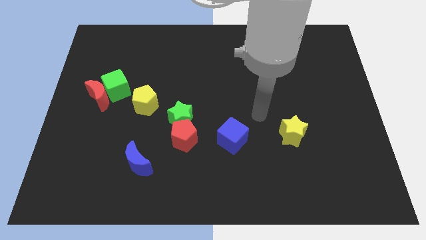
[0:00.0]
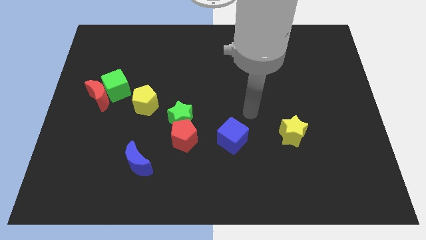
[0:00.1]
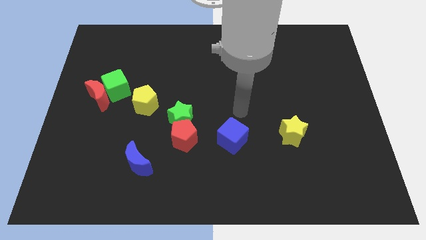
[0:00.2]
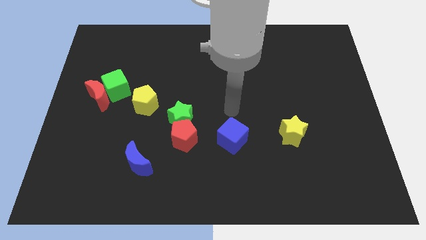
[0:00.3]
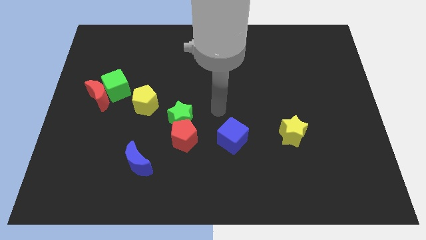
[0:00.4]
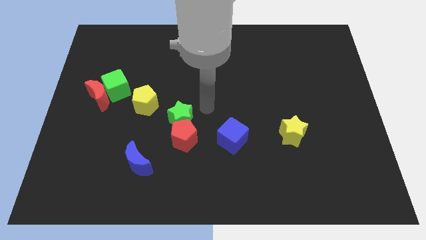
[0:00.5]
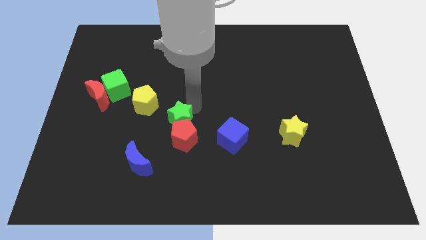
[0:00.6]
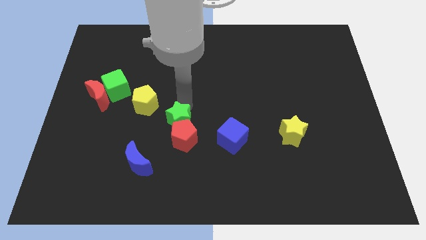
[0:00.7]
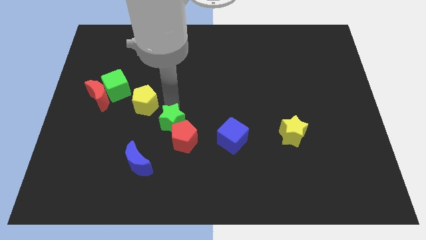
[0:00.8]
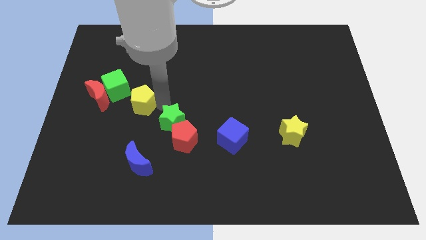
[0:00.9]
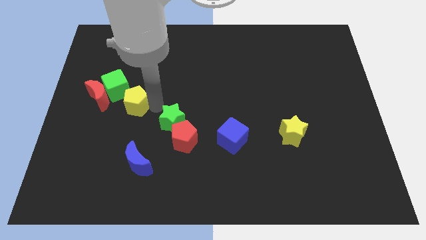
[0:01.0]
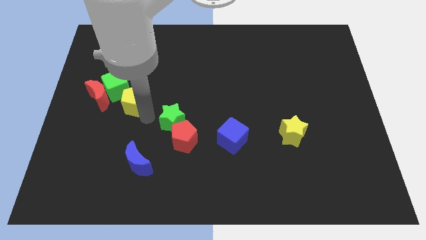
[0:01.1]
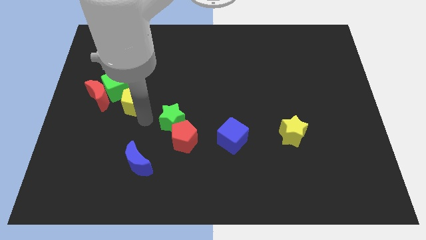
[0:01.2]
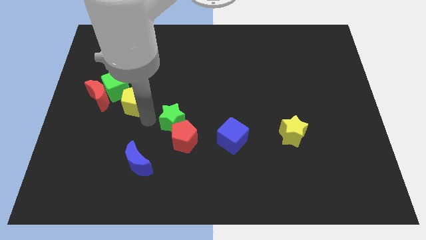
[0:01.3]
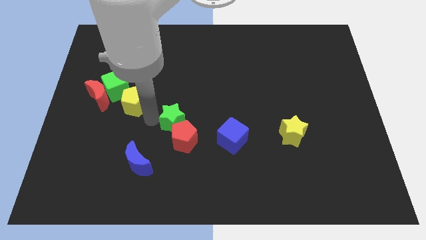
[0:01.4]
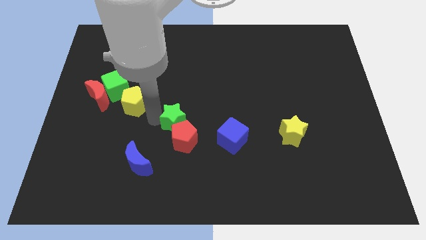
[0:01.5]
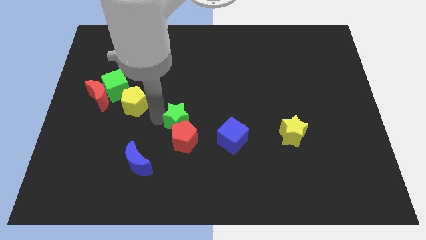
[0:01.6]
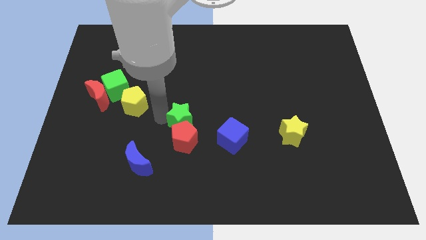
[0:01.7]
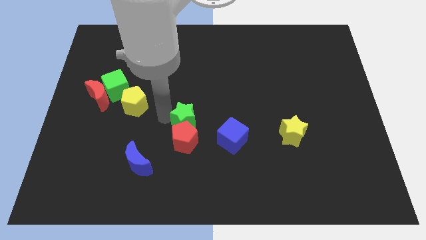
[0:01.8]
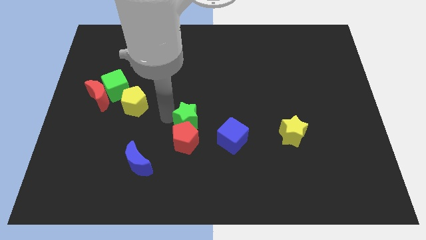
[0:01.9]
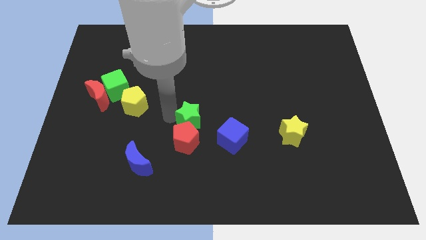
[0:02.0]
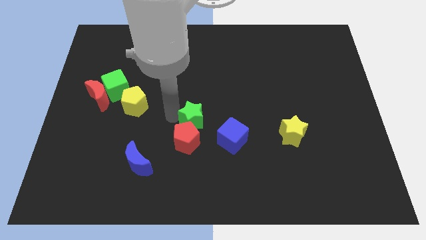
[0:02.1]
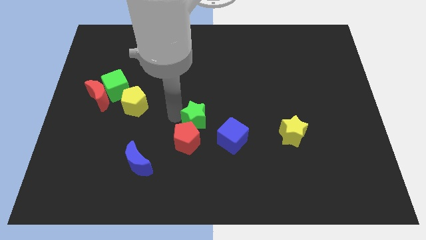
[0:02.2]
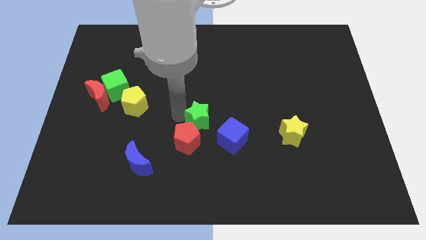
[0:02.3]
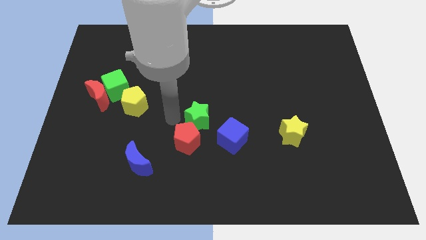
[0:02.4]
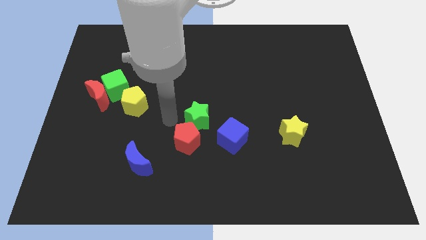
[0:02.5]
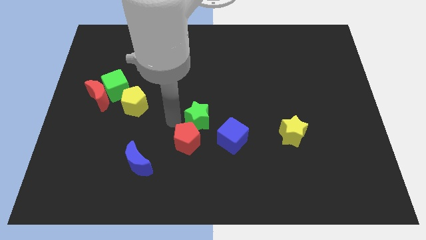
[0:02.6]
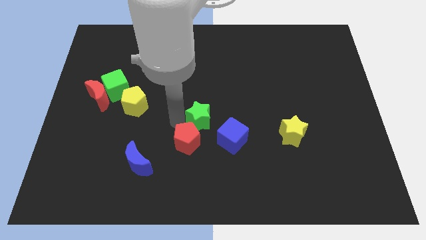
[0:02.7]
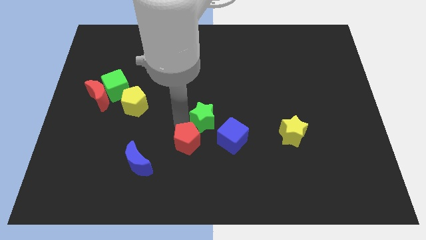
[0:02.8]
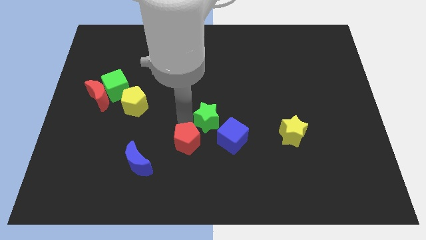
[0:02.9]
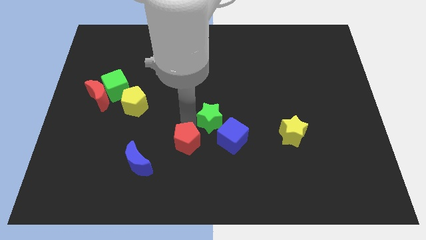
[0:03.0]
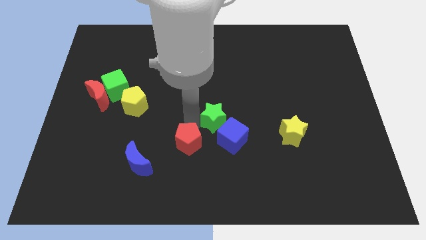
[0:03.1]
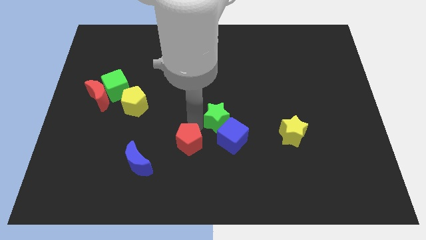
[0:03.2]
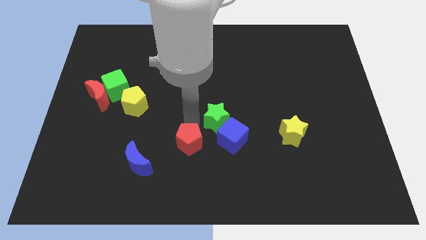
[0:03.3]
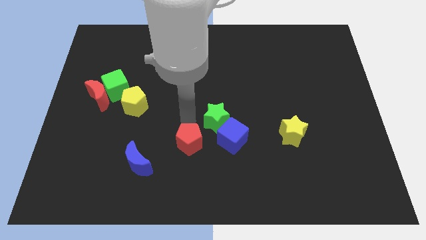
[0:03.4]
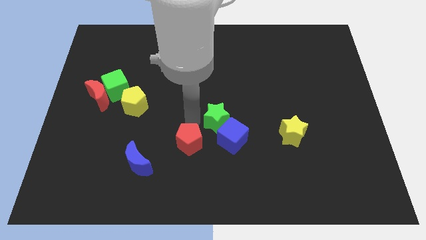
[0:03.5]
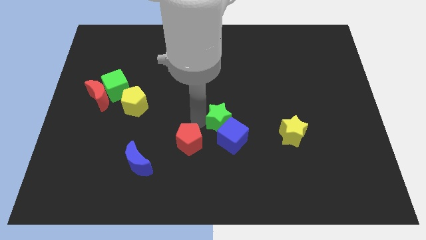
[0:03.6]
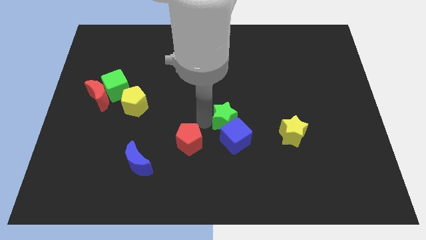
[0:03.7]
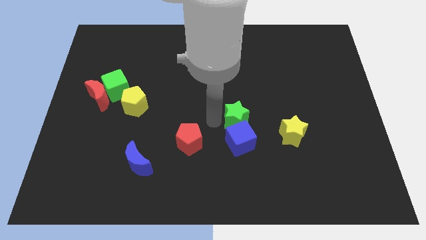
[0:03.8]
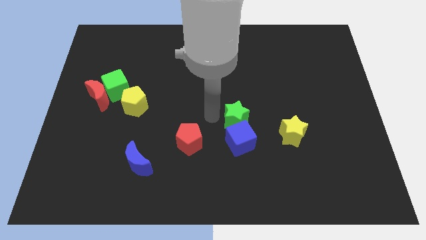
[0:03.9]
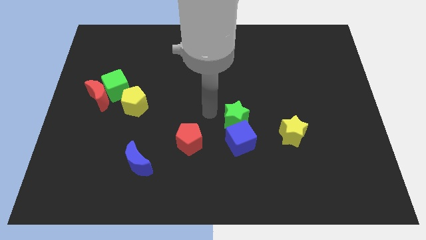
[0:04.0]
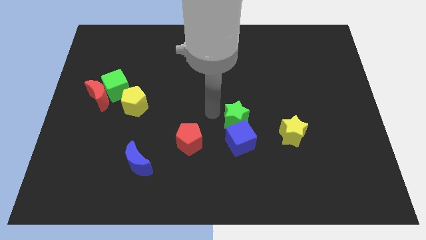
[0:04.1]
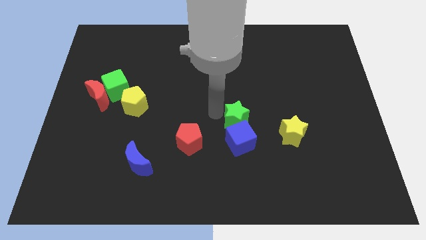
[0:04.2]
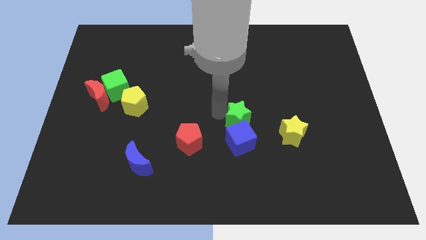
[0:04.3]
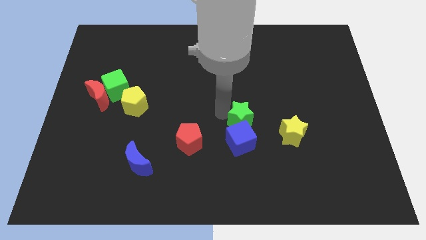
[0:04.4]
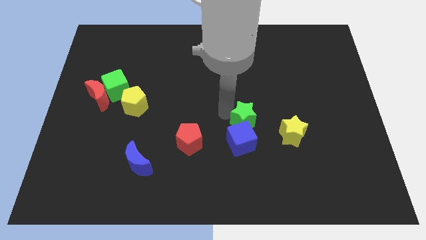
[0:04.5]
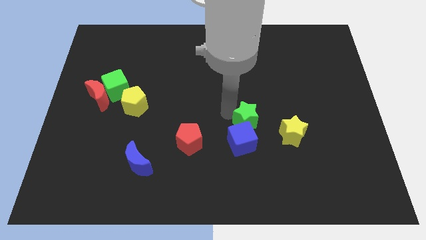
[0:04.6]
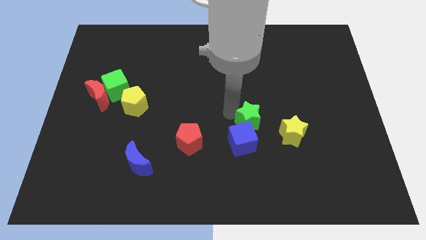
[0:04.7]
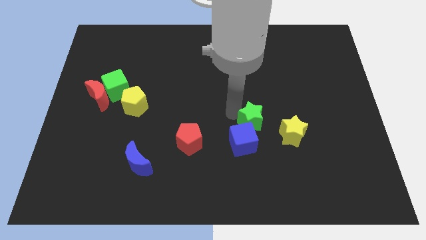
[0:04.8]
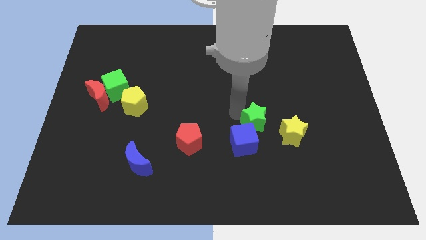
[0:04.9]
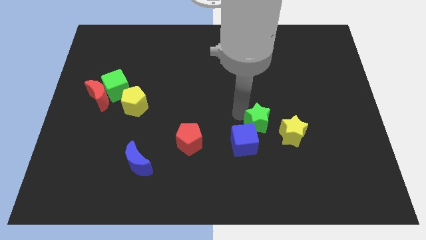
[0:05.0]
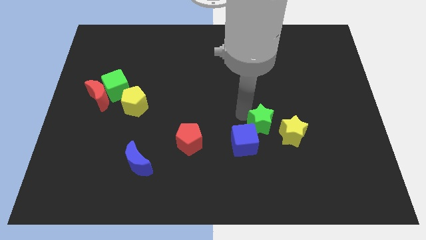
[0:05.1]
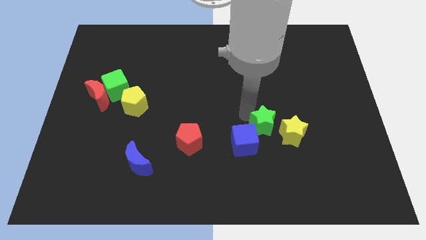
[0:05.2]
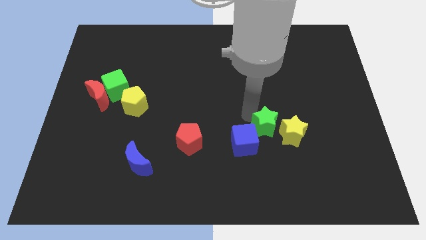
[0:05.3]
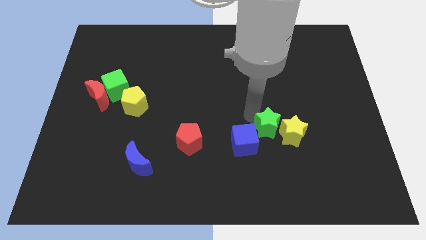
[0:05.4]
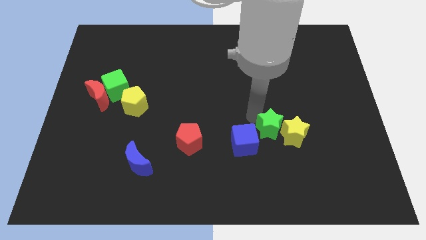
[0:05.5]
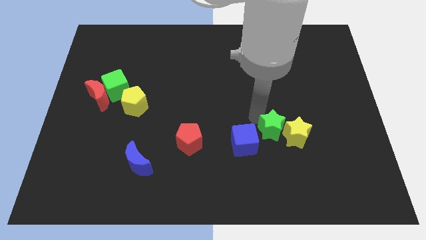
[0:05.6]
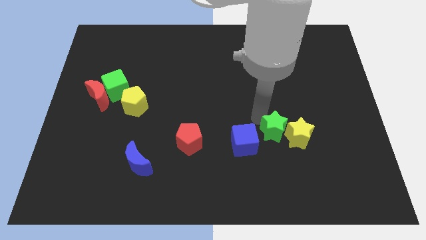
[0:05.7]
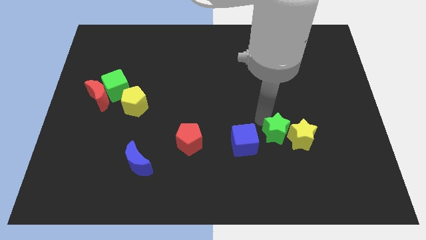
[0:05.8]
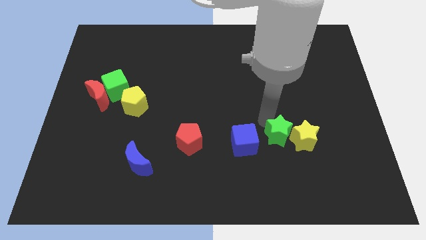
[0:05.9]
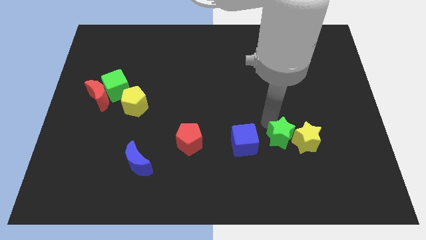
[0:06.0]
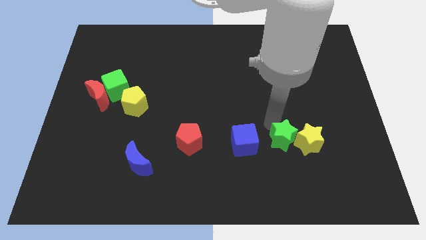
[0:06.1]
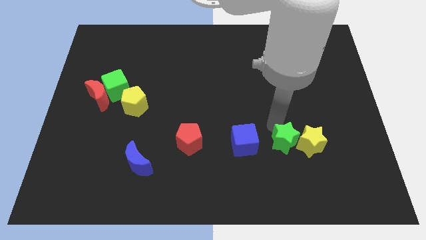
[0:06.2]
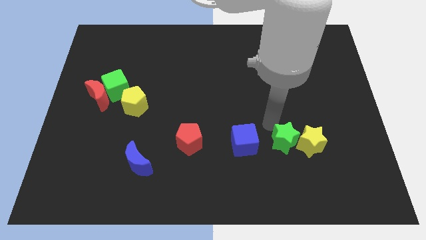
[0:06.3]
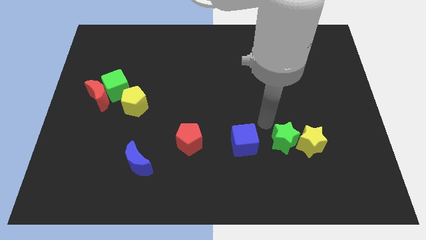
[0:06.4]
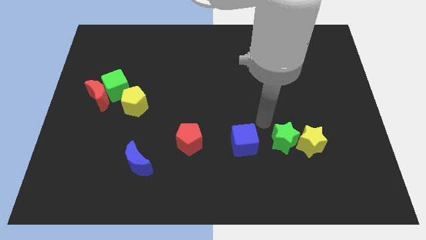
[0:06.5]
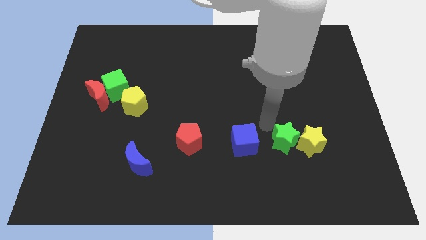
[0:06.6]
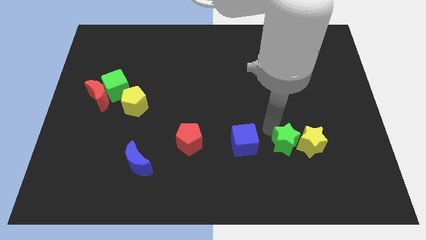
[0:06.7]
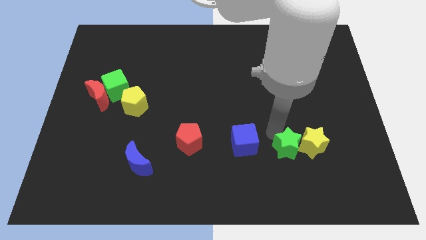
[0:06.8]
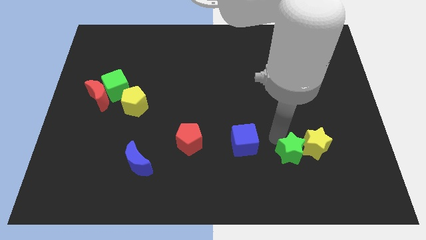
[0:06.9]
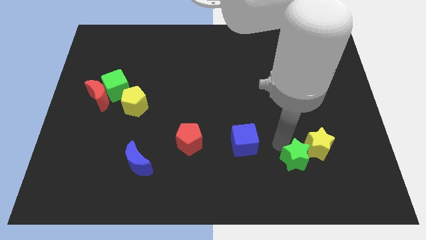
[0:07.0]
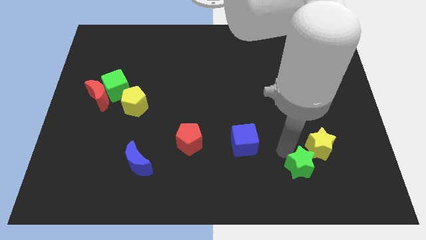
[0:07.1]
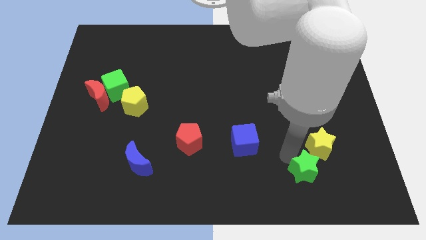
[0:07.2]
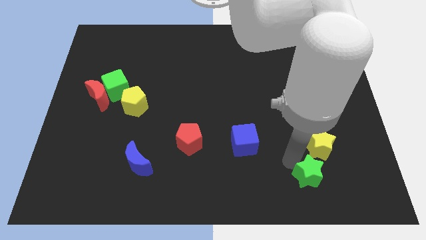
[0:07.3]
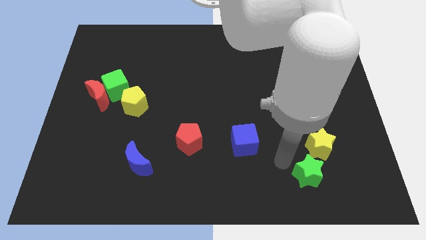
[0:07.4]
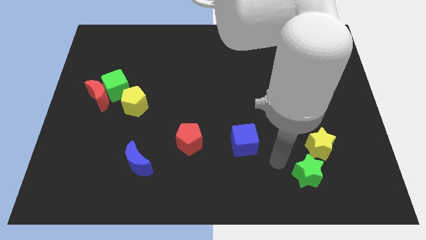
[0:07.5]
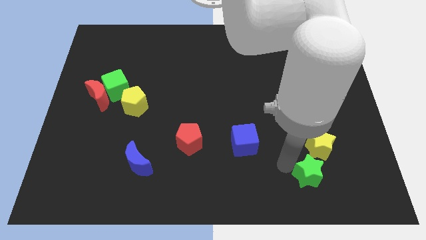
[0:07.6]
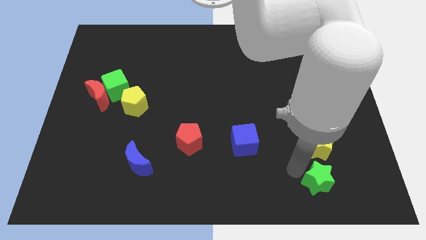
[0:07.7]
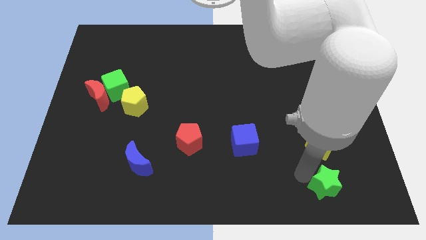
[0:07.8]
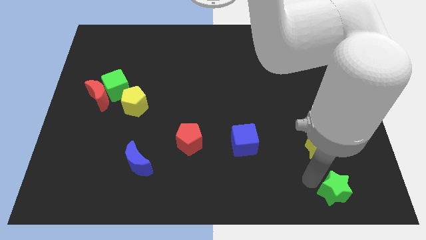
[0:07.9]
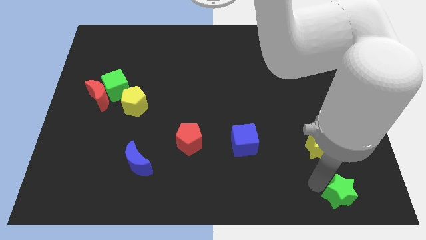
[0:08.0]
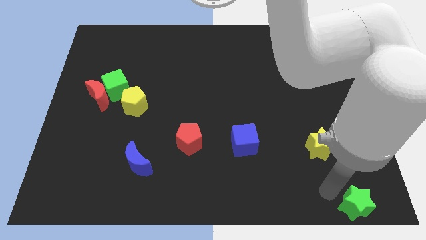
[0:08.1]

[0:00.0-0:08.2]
push the green star to the bottom right corner
